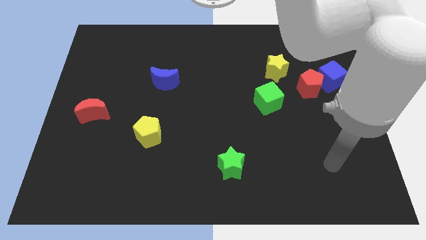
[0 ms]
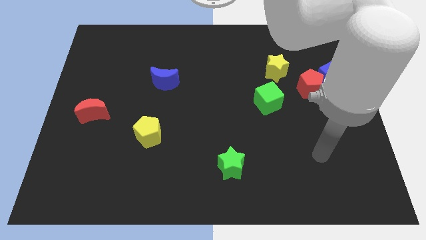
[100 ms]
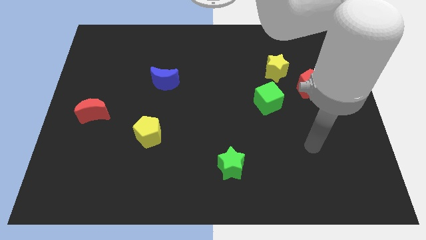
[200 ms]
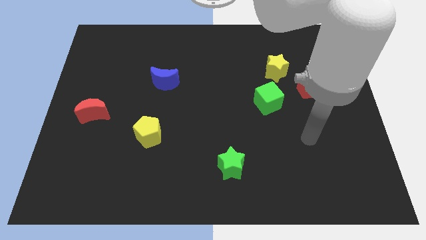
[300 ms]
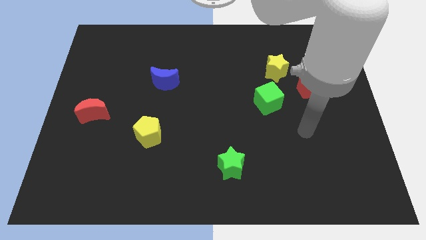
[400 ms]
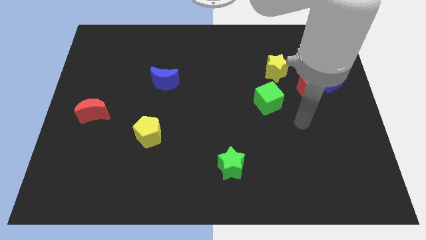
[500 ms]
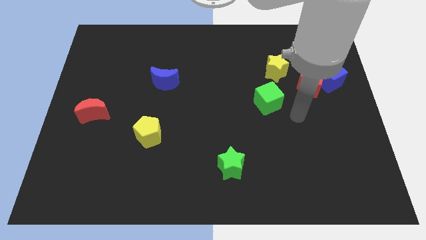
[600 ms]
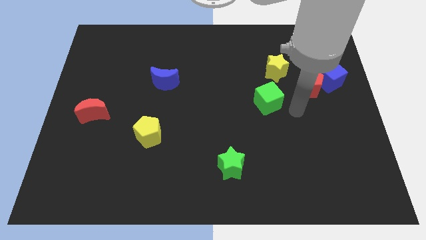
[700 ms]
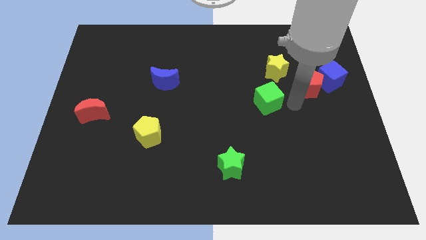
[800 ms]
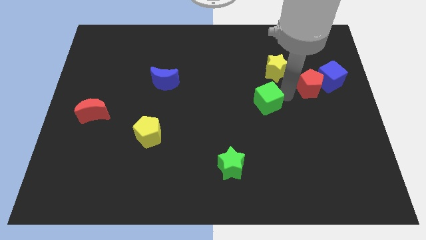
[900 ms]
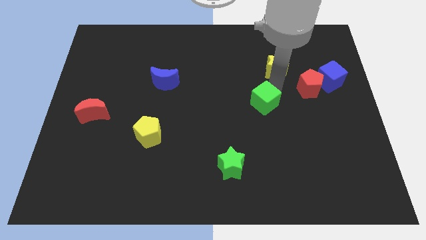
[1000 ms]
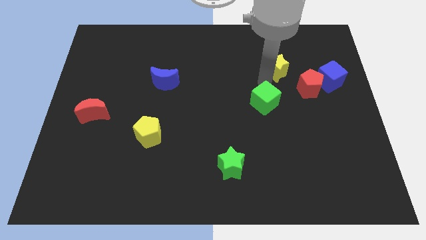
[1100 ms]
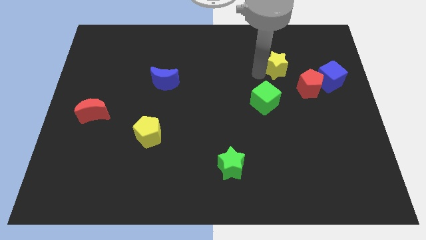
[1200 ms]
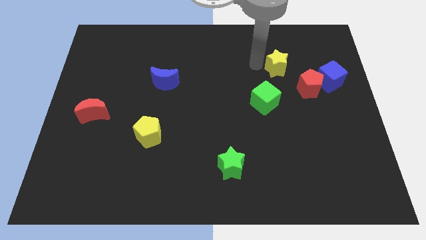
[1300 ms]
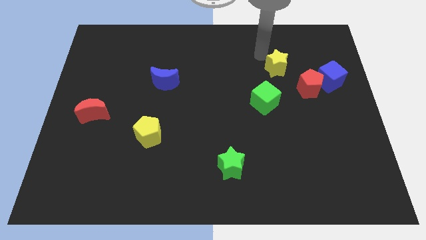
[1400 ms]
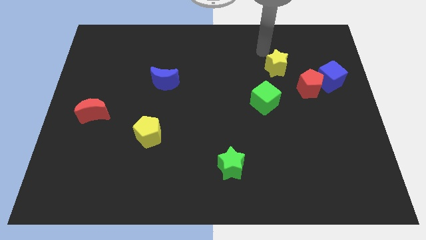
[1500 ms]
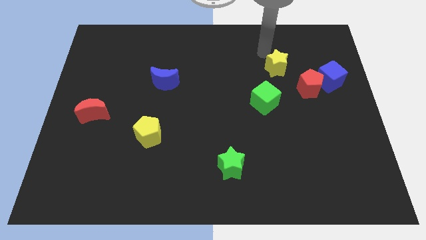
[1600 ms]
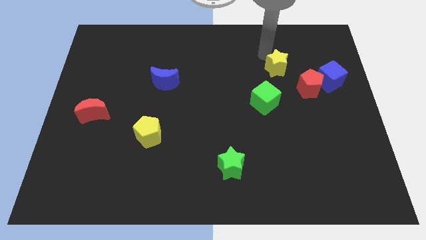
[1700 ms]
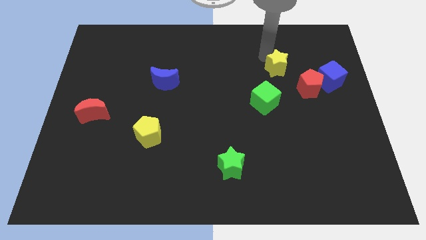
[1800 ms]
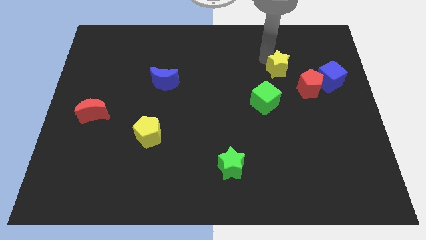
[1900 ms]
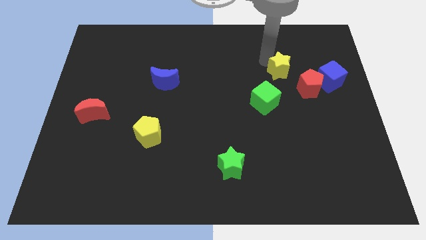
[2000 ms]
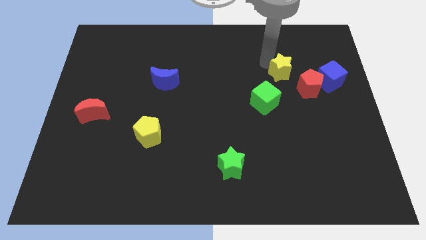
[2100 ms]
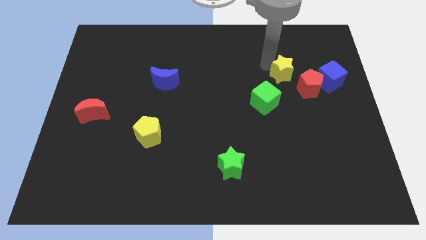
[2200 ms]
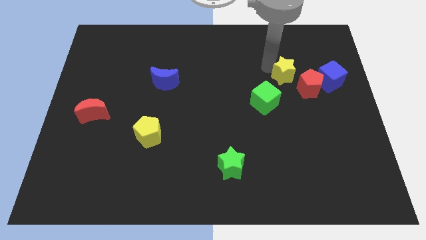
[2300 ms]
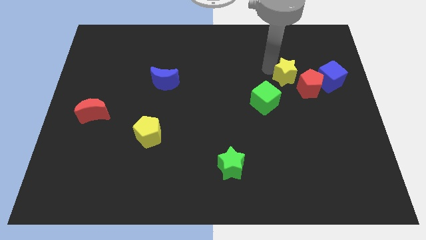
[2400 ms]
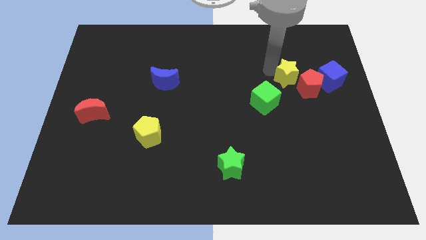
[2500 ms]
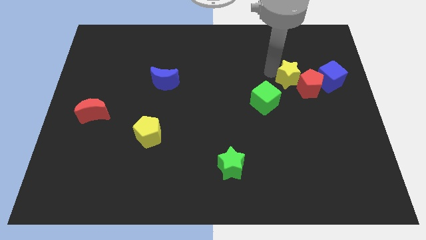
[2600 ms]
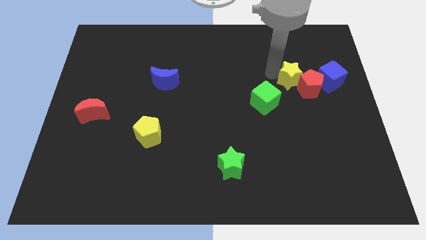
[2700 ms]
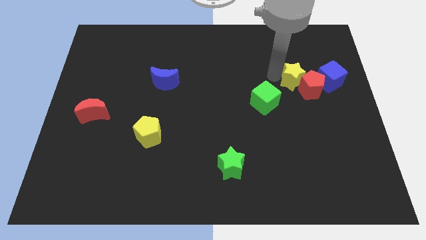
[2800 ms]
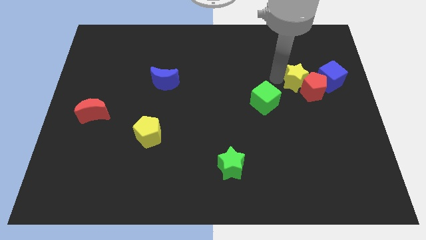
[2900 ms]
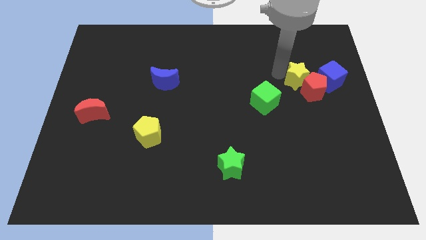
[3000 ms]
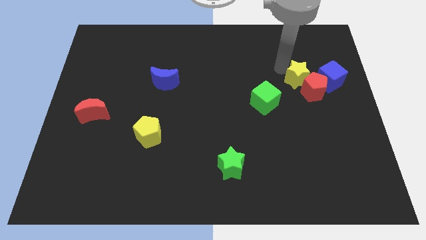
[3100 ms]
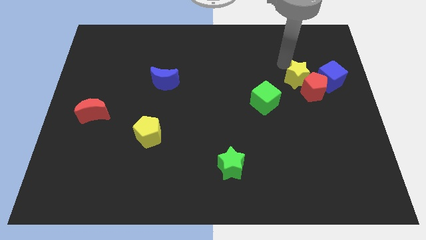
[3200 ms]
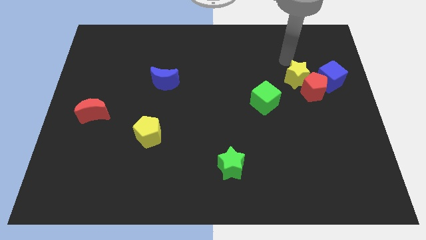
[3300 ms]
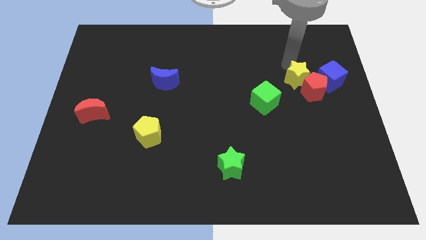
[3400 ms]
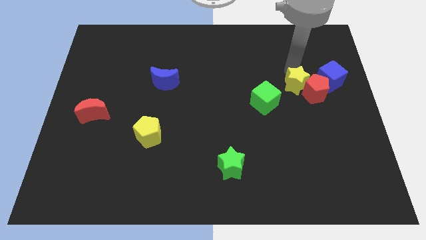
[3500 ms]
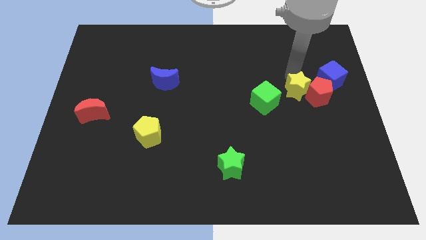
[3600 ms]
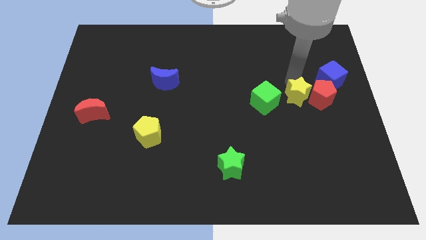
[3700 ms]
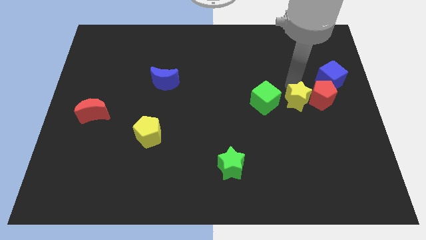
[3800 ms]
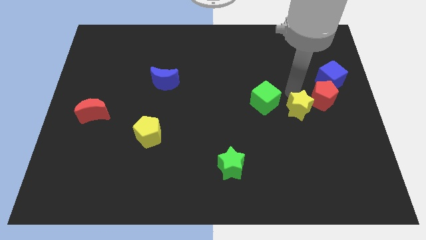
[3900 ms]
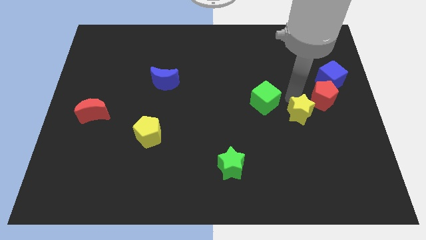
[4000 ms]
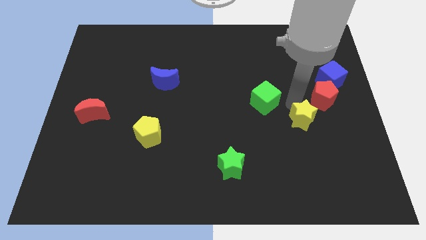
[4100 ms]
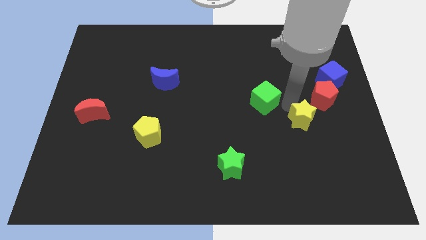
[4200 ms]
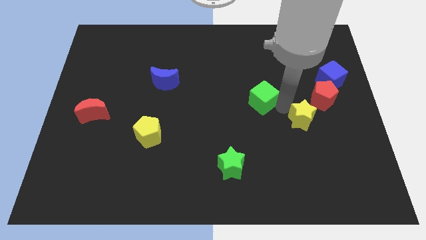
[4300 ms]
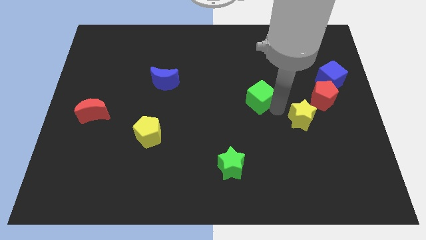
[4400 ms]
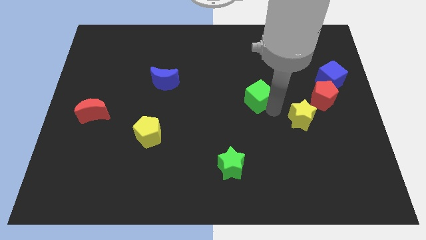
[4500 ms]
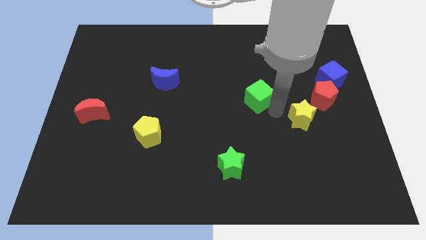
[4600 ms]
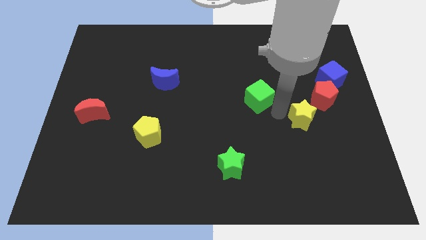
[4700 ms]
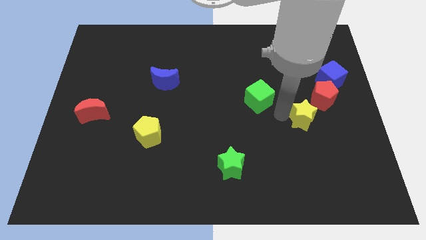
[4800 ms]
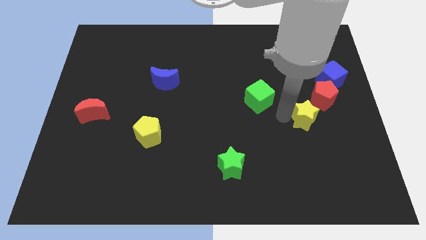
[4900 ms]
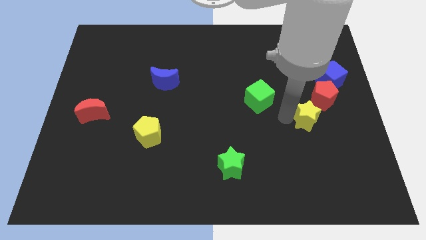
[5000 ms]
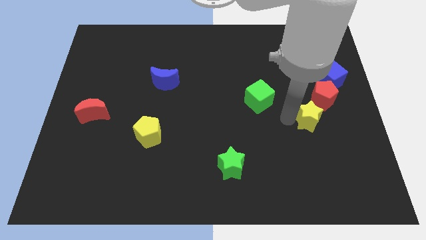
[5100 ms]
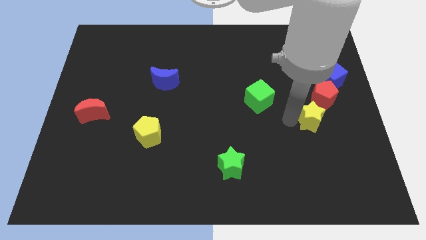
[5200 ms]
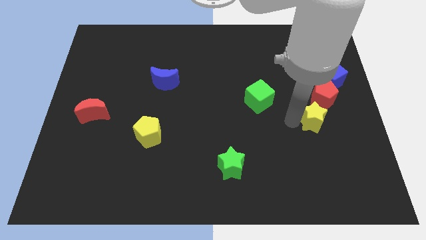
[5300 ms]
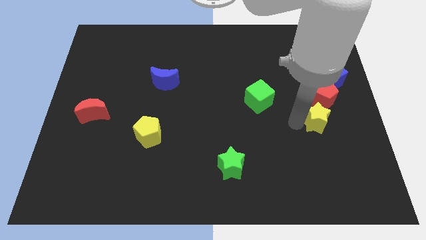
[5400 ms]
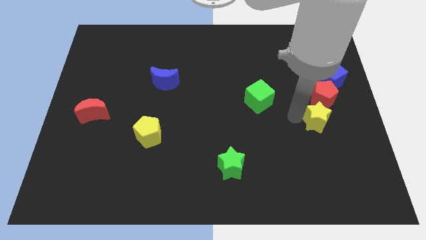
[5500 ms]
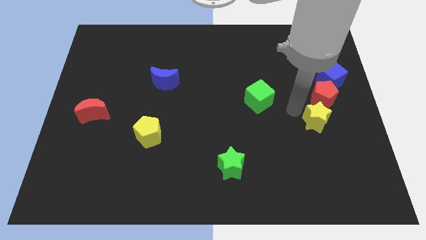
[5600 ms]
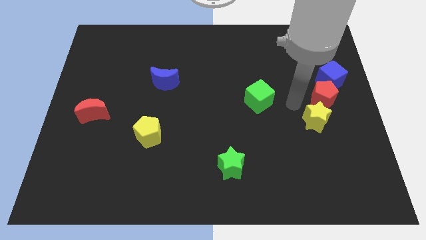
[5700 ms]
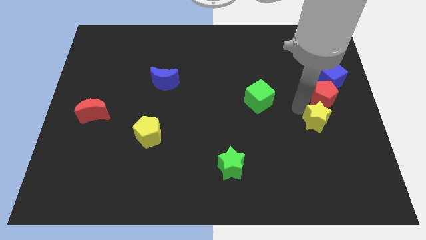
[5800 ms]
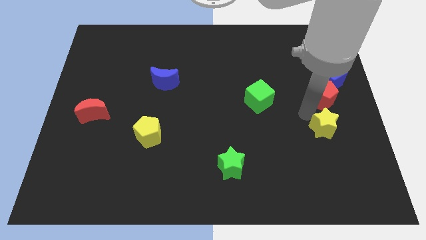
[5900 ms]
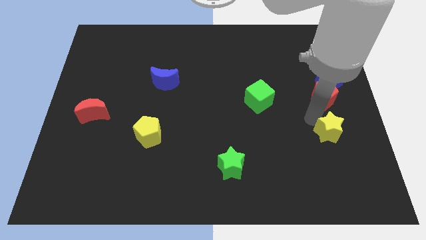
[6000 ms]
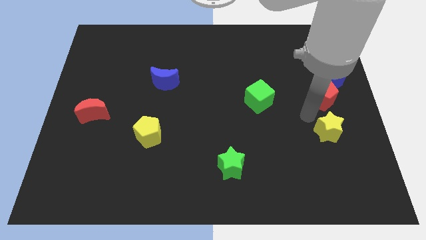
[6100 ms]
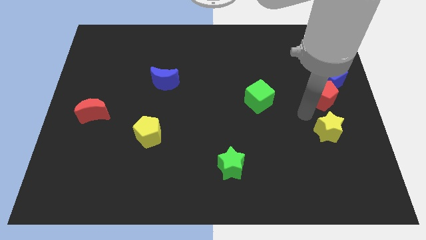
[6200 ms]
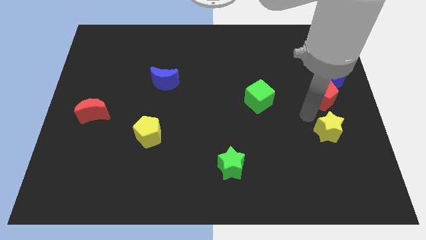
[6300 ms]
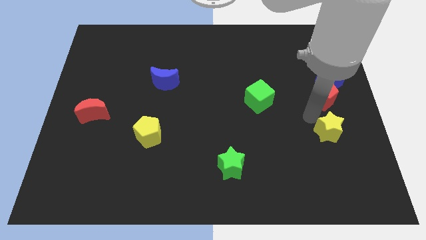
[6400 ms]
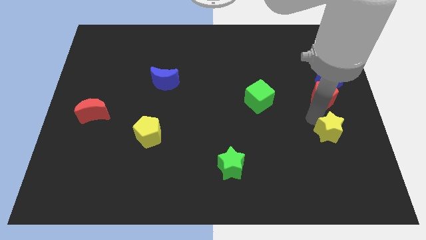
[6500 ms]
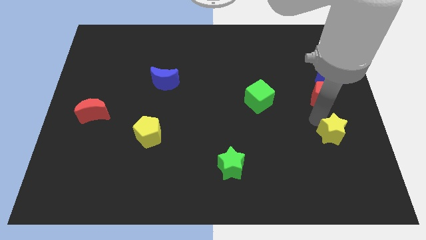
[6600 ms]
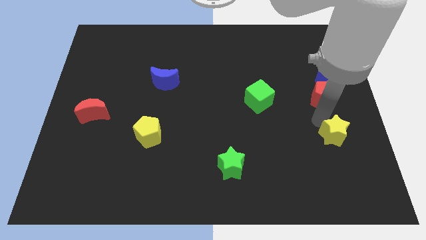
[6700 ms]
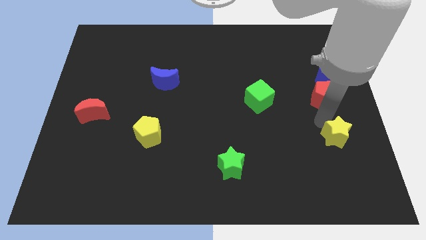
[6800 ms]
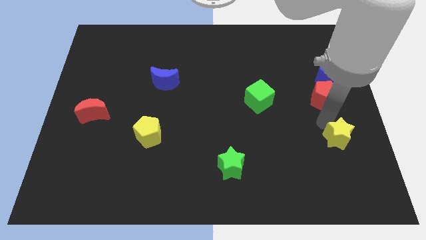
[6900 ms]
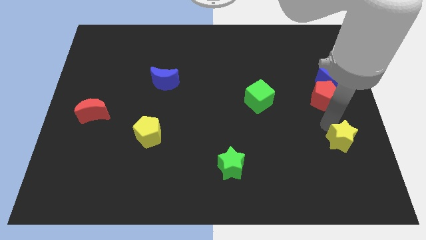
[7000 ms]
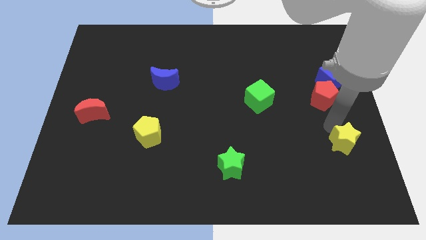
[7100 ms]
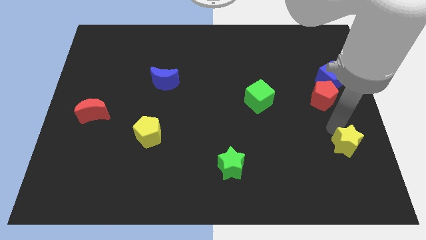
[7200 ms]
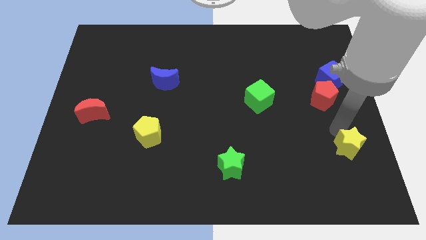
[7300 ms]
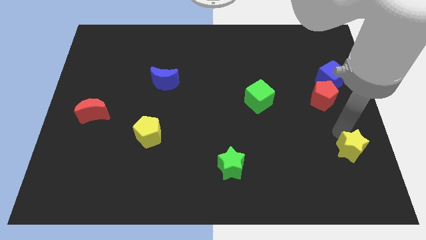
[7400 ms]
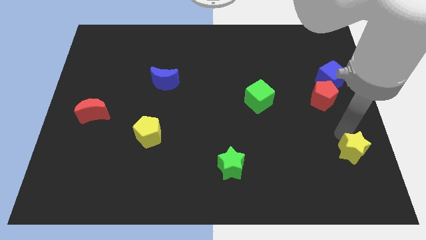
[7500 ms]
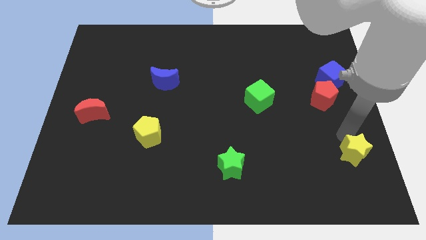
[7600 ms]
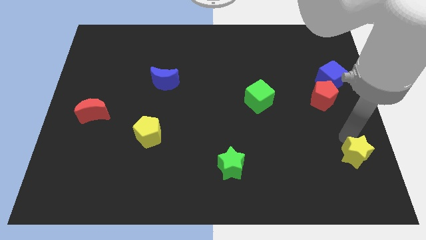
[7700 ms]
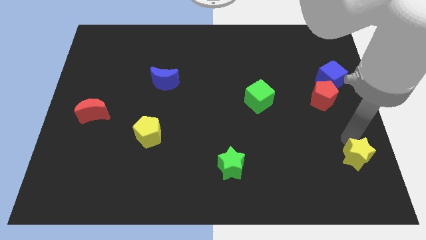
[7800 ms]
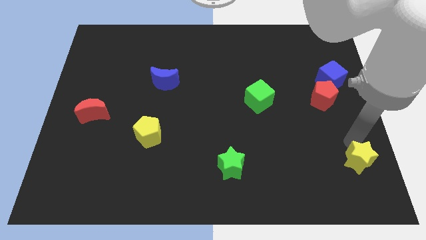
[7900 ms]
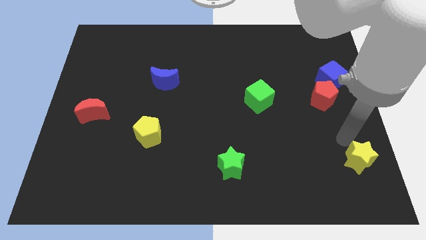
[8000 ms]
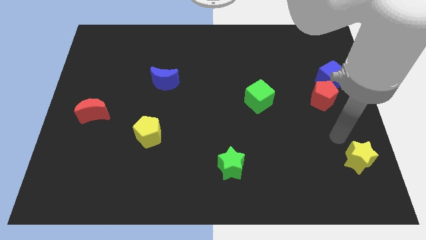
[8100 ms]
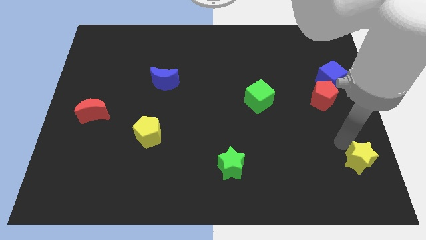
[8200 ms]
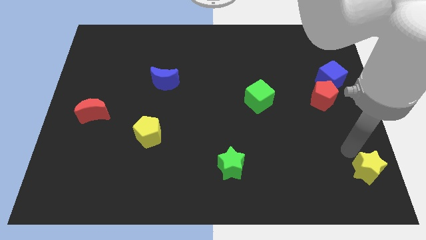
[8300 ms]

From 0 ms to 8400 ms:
put the yellow star to the bottom right of the board
